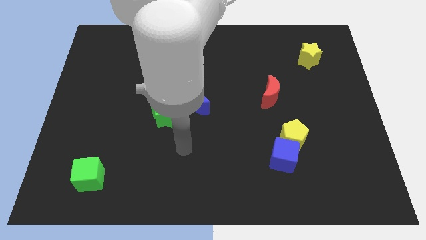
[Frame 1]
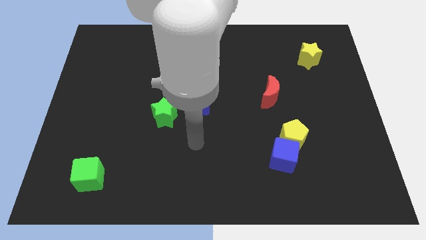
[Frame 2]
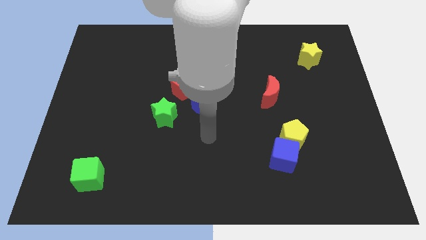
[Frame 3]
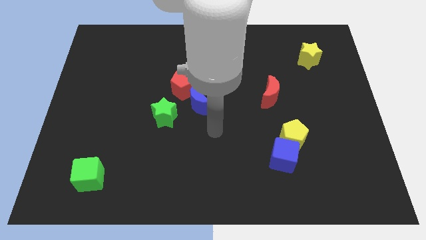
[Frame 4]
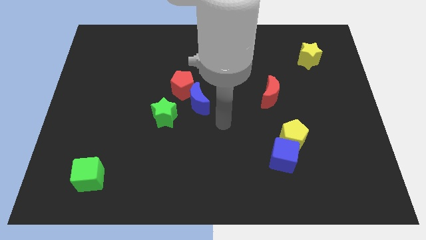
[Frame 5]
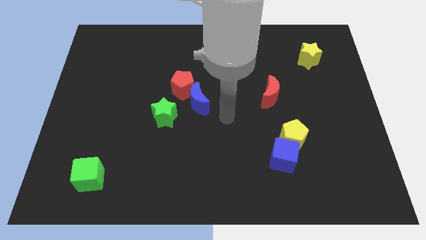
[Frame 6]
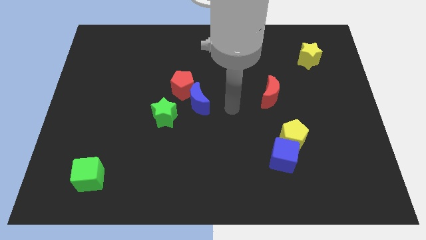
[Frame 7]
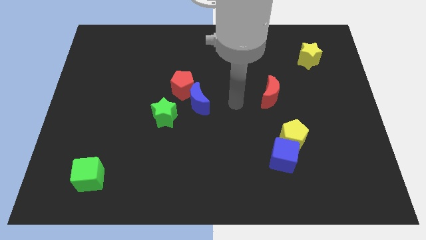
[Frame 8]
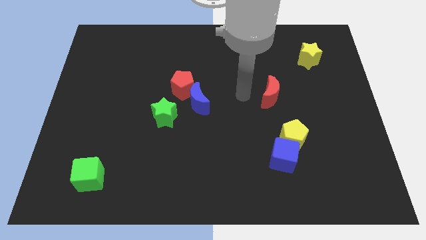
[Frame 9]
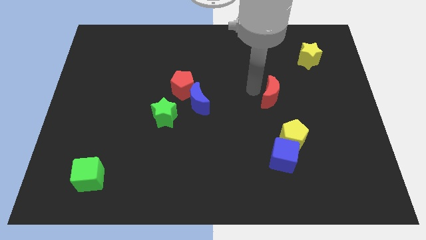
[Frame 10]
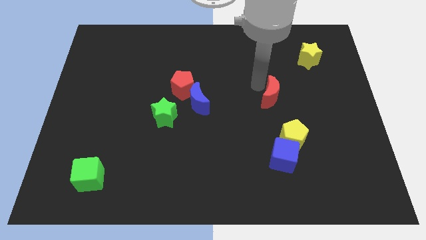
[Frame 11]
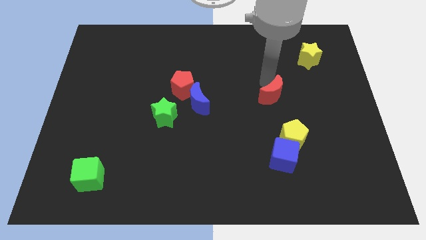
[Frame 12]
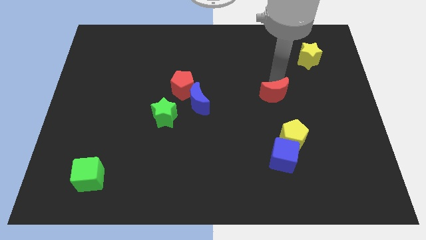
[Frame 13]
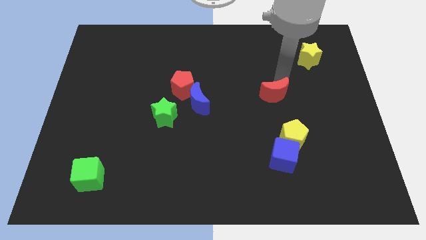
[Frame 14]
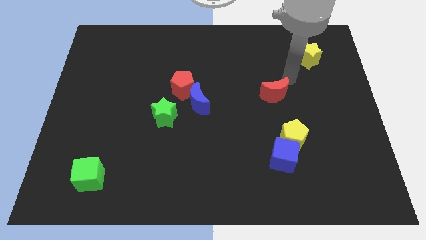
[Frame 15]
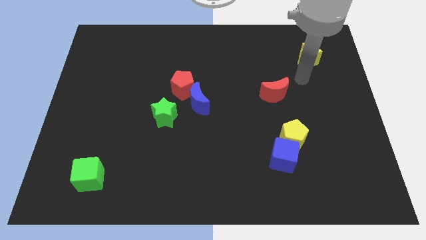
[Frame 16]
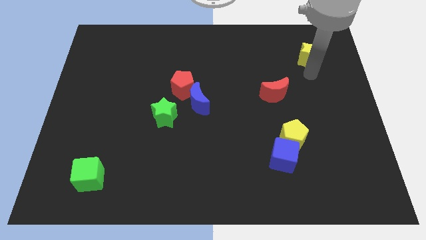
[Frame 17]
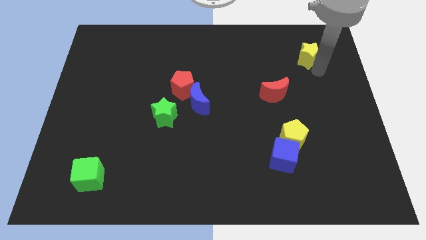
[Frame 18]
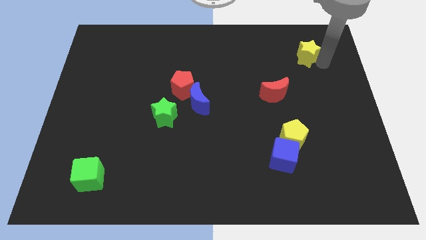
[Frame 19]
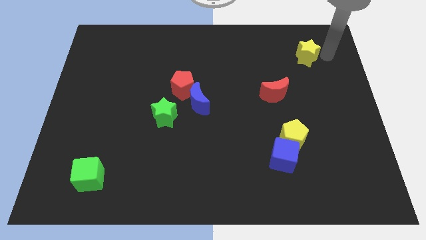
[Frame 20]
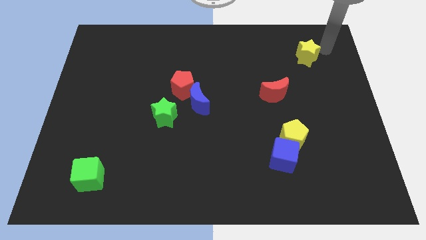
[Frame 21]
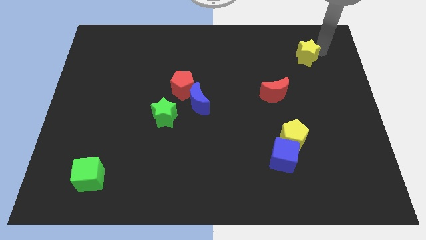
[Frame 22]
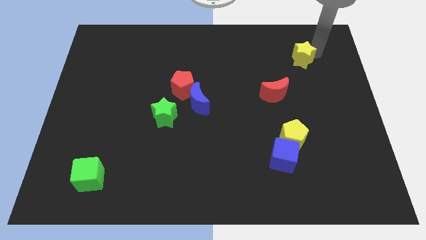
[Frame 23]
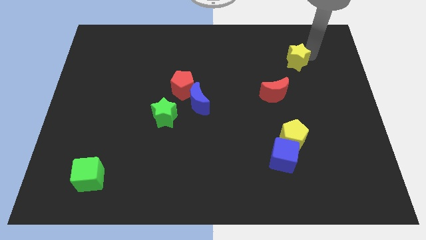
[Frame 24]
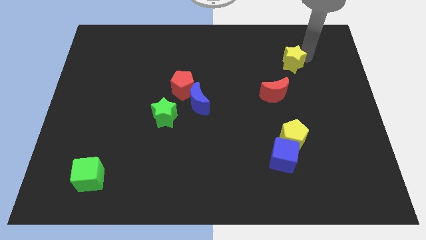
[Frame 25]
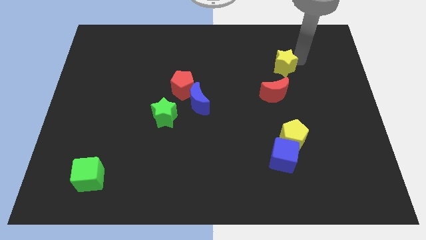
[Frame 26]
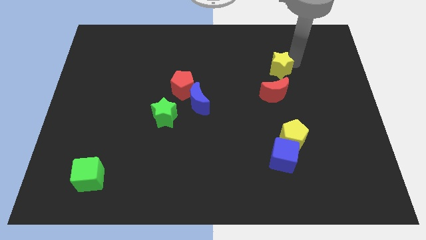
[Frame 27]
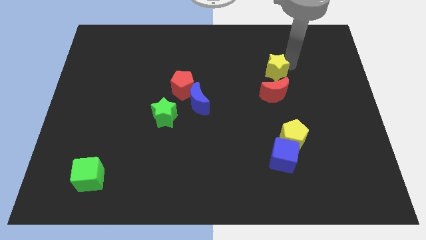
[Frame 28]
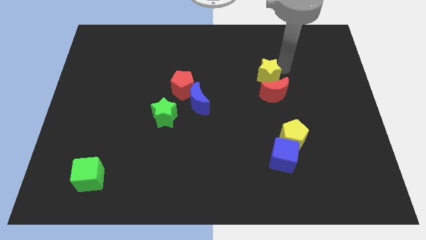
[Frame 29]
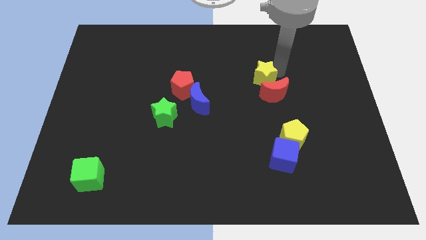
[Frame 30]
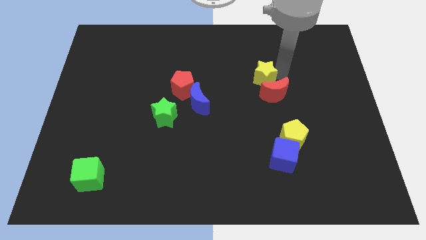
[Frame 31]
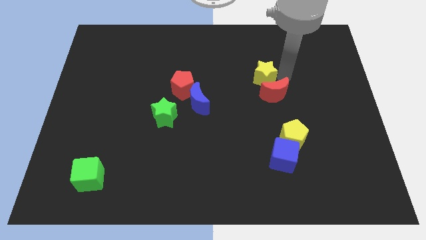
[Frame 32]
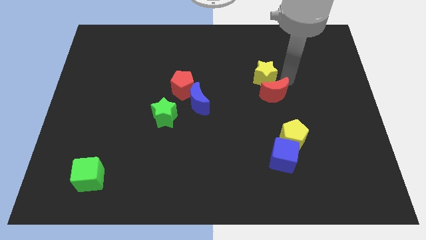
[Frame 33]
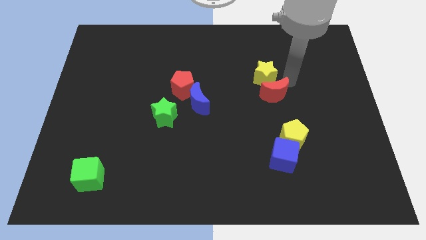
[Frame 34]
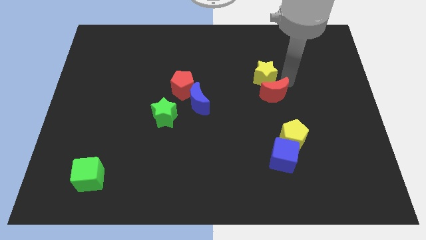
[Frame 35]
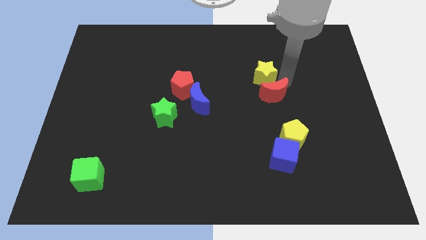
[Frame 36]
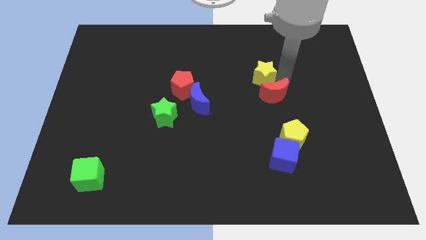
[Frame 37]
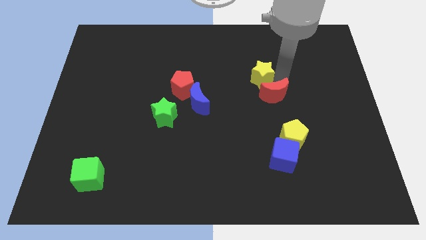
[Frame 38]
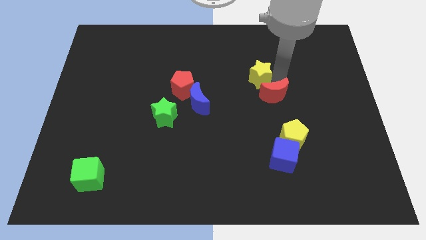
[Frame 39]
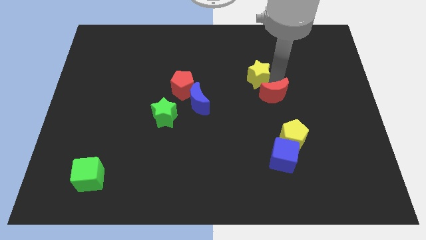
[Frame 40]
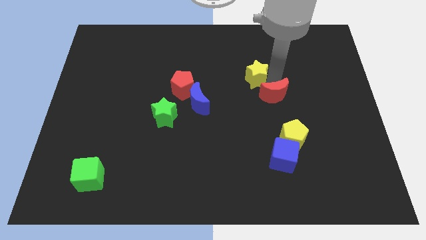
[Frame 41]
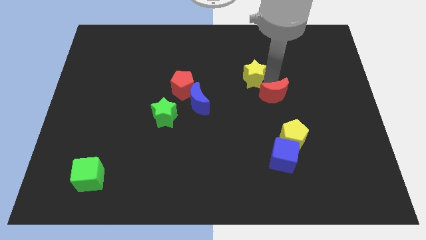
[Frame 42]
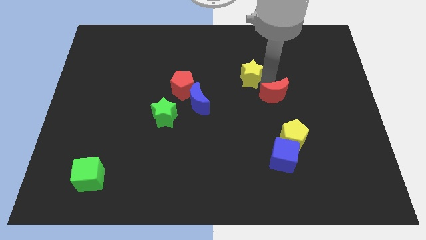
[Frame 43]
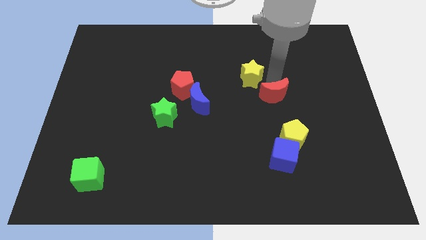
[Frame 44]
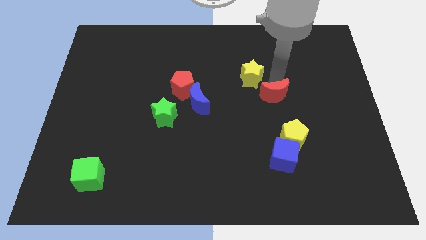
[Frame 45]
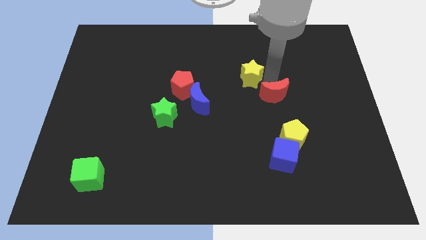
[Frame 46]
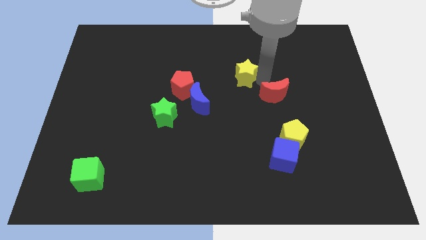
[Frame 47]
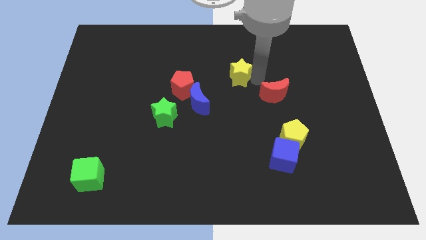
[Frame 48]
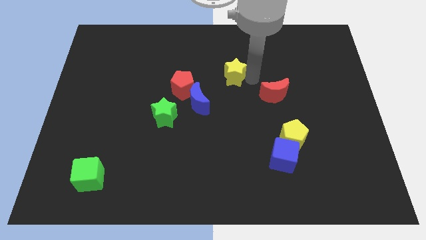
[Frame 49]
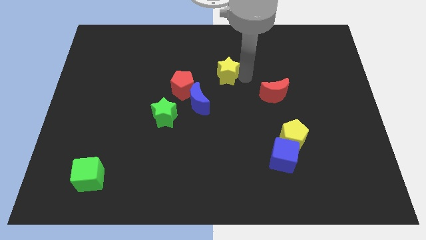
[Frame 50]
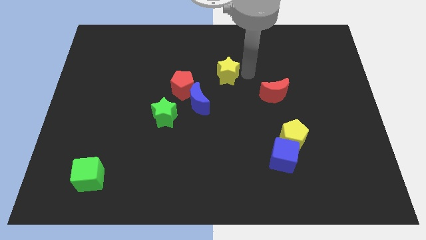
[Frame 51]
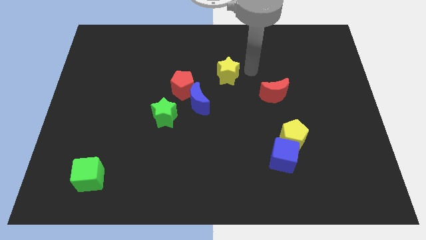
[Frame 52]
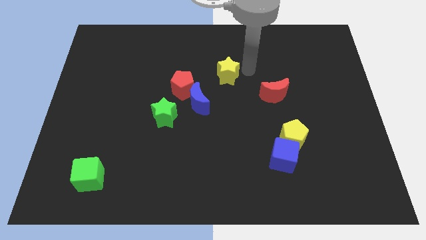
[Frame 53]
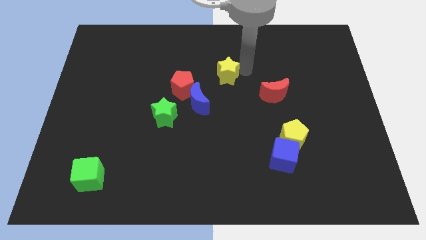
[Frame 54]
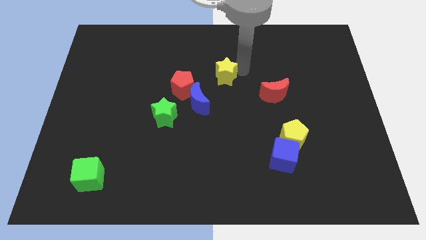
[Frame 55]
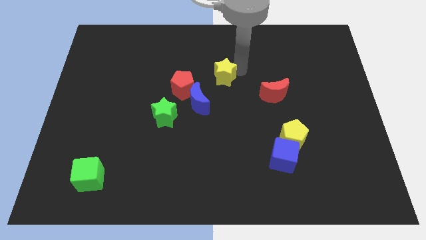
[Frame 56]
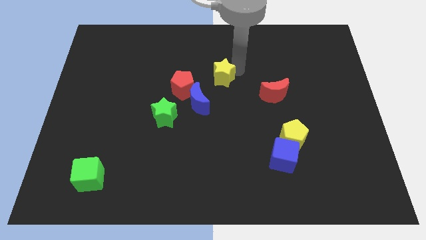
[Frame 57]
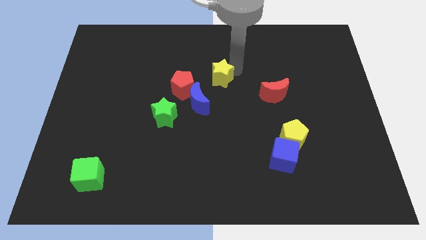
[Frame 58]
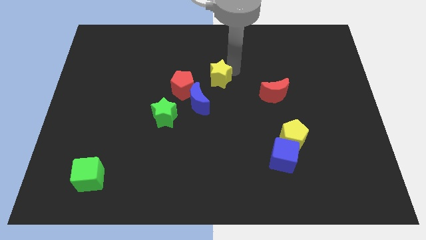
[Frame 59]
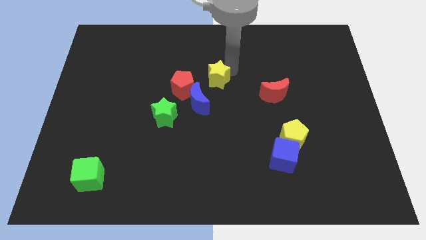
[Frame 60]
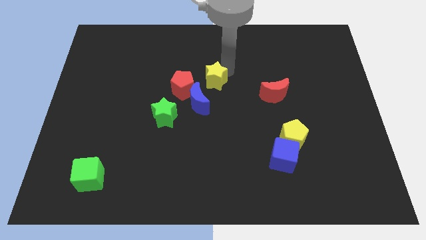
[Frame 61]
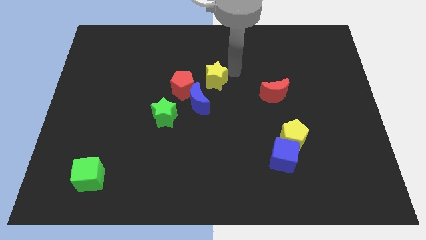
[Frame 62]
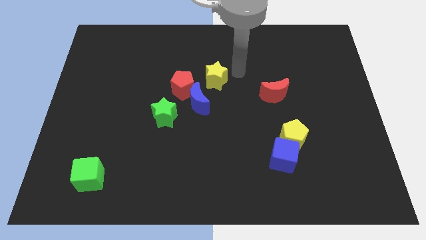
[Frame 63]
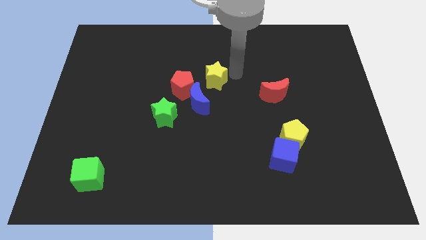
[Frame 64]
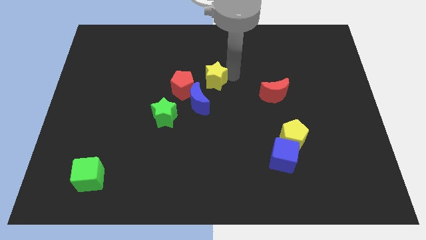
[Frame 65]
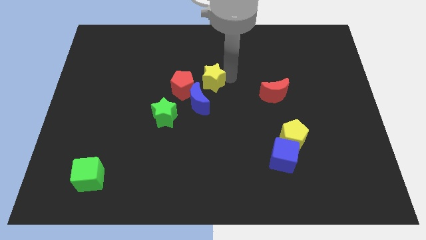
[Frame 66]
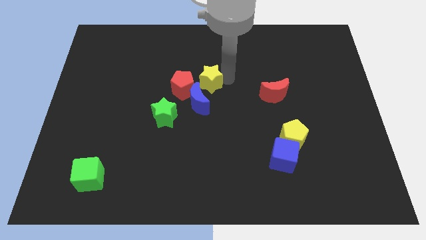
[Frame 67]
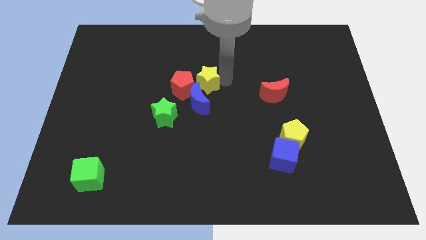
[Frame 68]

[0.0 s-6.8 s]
move the yellow star to the red pentagon
